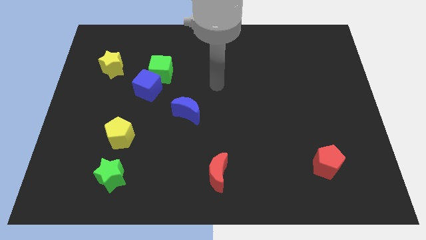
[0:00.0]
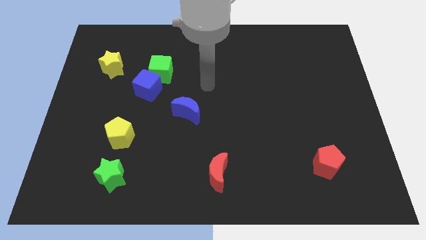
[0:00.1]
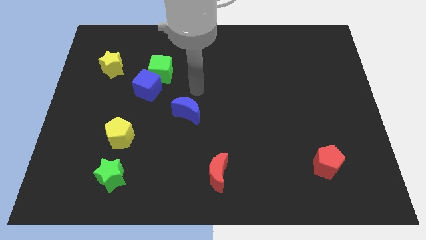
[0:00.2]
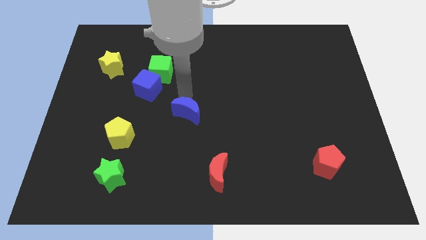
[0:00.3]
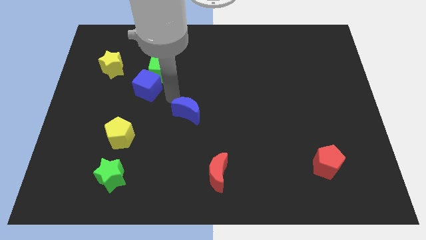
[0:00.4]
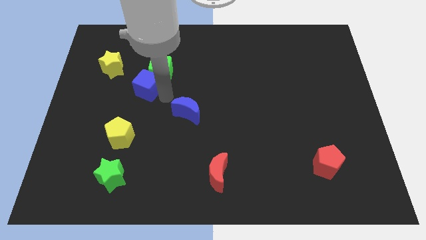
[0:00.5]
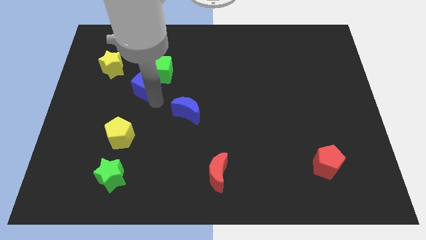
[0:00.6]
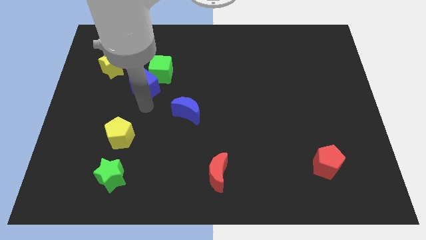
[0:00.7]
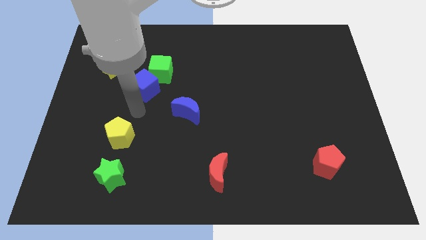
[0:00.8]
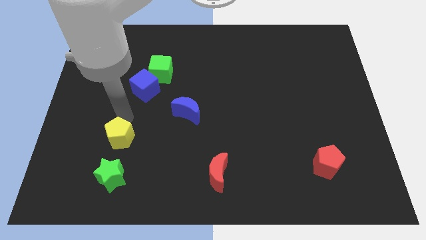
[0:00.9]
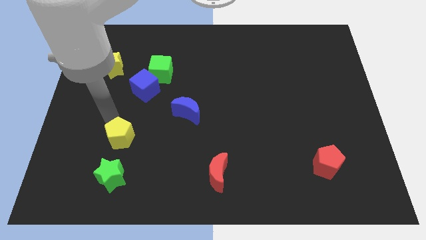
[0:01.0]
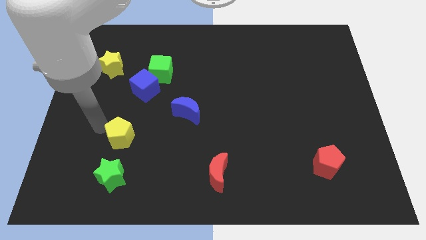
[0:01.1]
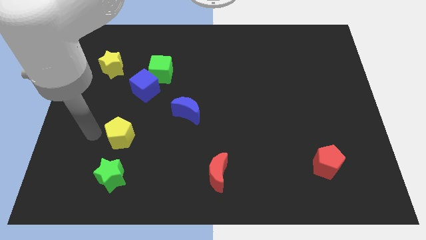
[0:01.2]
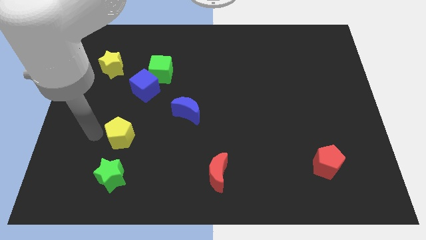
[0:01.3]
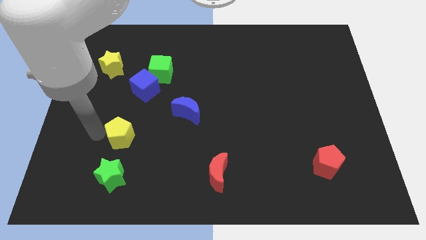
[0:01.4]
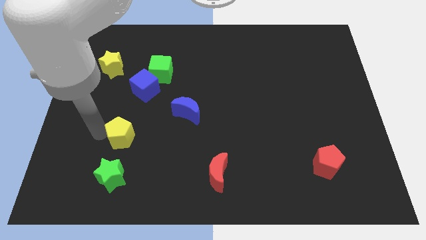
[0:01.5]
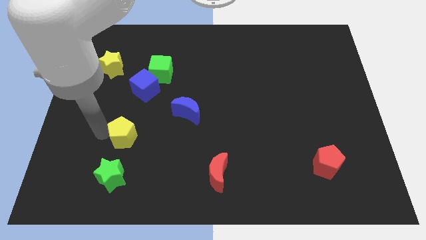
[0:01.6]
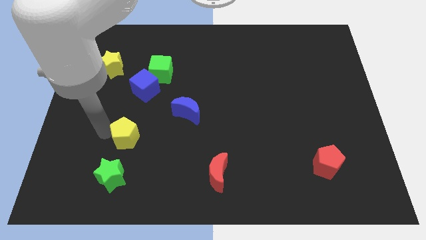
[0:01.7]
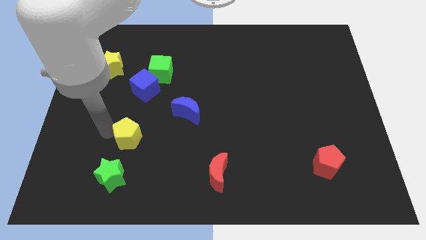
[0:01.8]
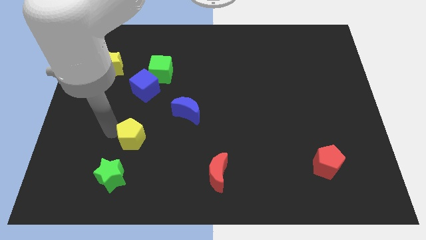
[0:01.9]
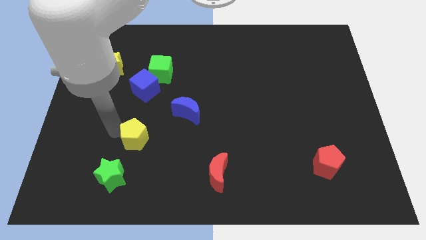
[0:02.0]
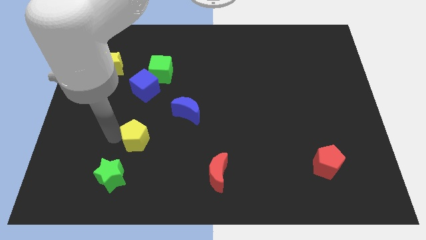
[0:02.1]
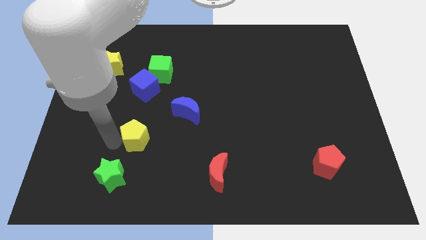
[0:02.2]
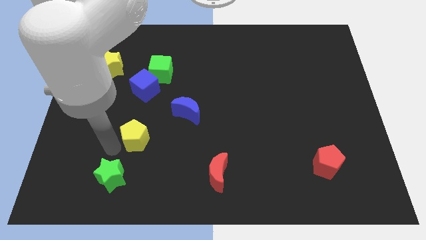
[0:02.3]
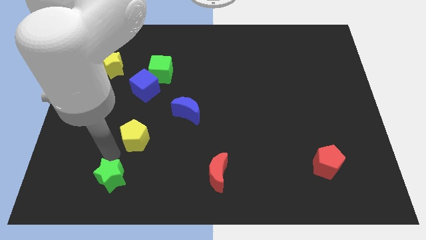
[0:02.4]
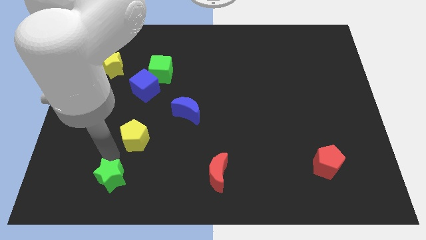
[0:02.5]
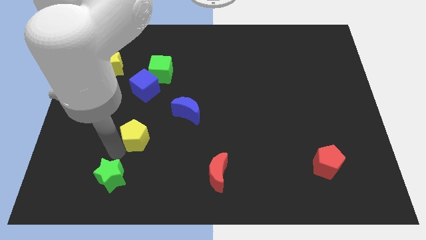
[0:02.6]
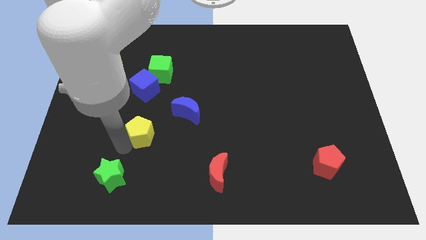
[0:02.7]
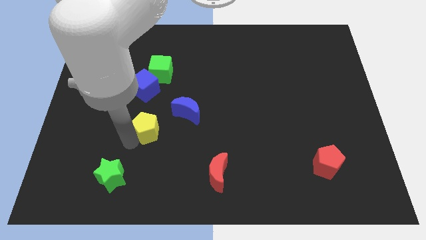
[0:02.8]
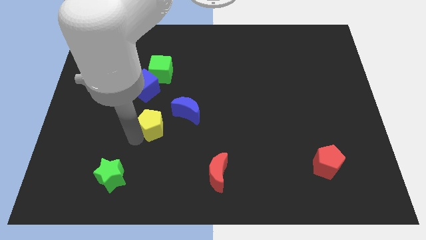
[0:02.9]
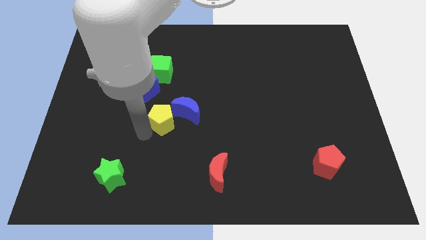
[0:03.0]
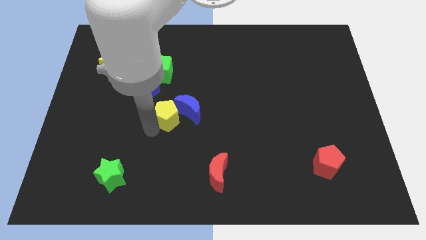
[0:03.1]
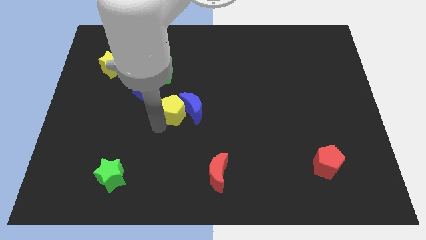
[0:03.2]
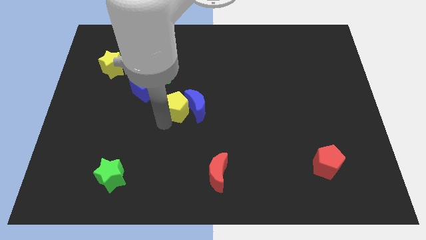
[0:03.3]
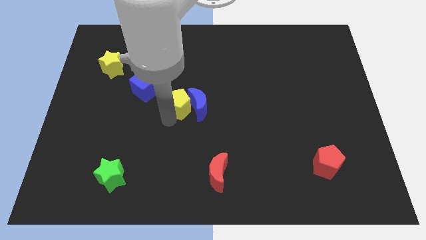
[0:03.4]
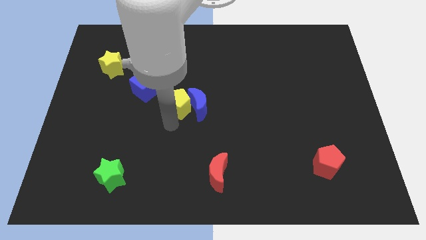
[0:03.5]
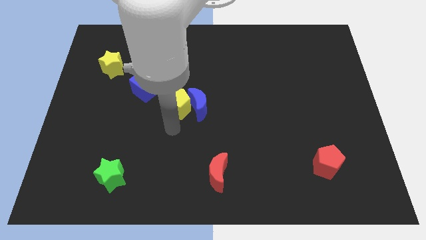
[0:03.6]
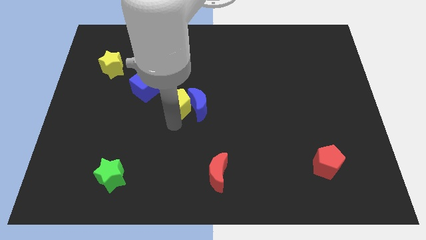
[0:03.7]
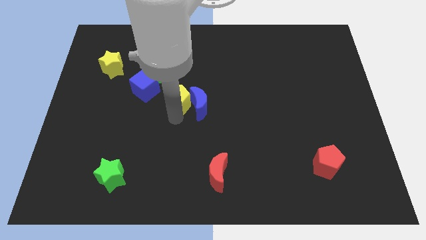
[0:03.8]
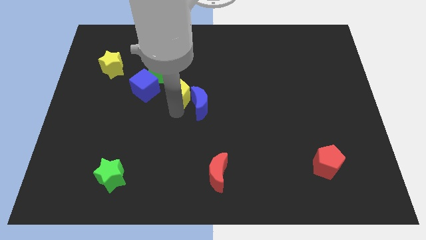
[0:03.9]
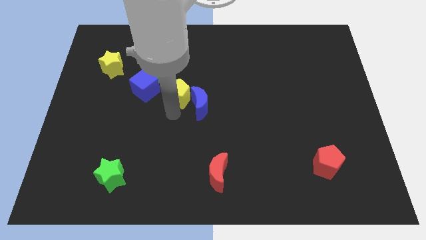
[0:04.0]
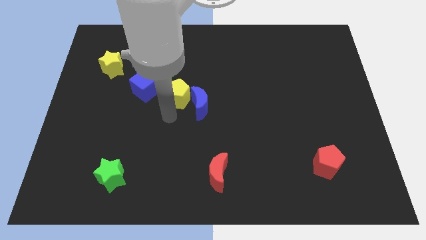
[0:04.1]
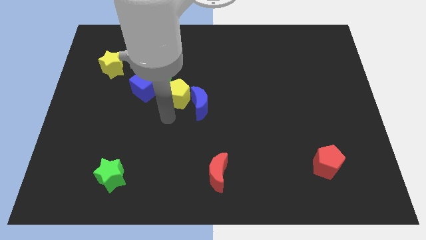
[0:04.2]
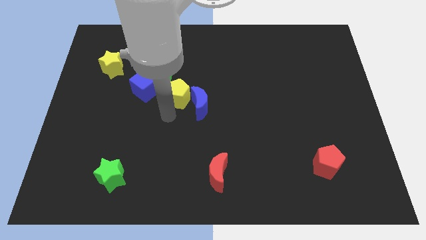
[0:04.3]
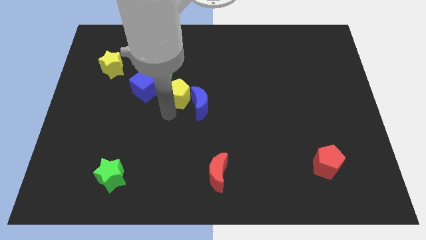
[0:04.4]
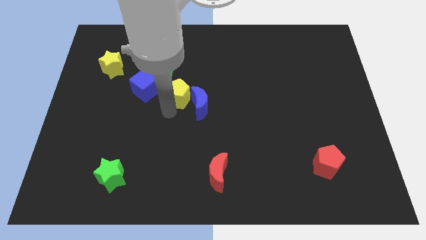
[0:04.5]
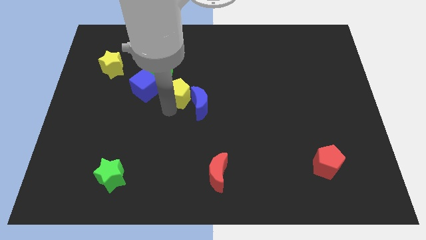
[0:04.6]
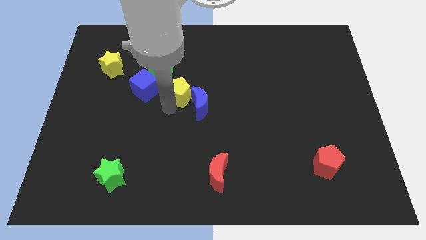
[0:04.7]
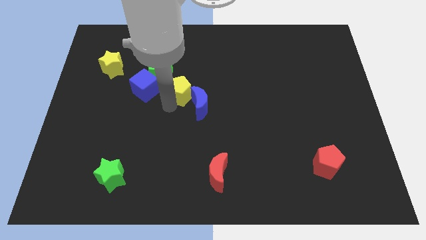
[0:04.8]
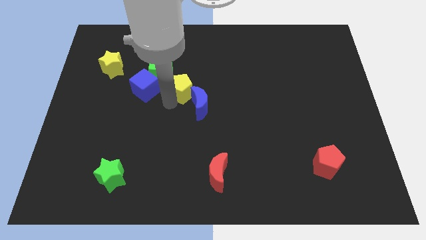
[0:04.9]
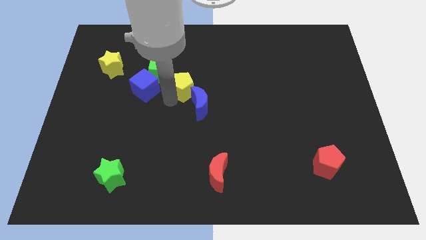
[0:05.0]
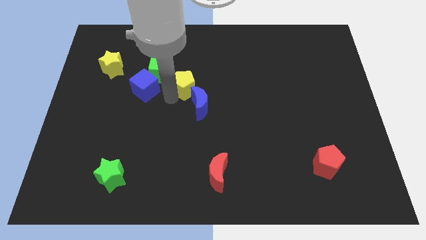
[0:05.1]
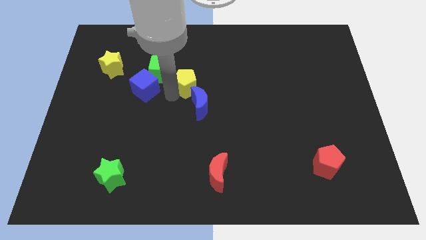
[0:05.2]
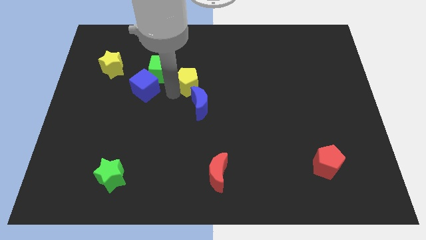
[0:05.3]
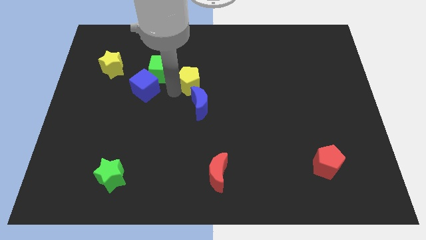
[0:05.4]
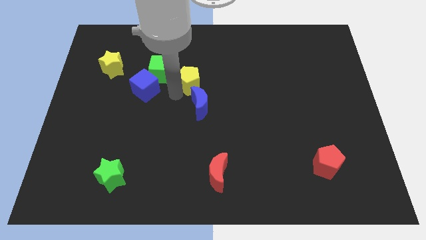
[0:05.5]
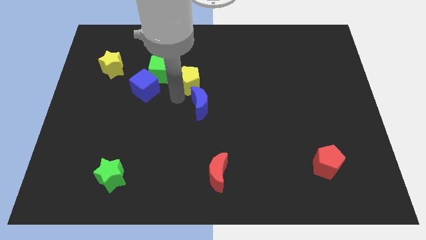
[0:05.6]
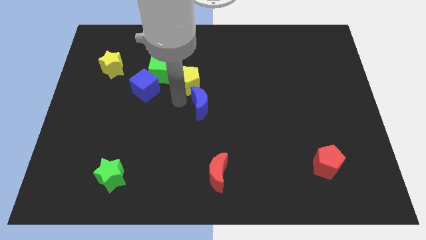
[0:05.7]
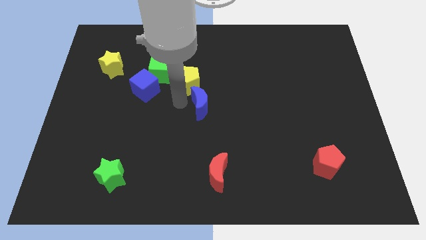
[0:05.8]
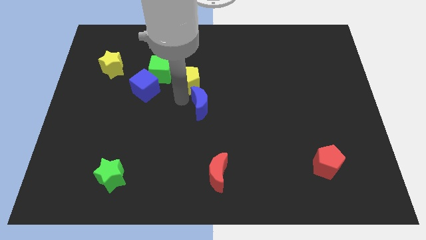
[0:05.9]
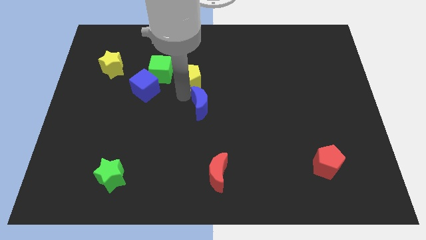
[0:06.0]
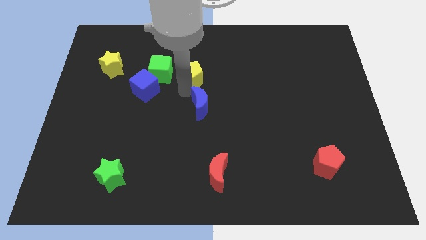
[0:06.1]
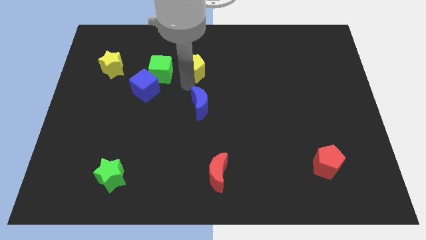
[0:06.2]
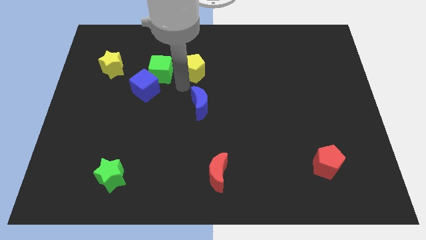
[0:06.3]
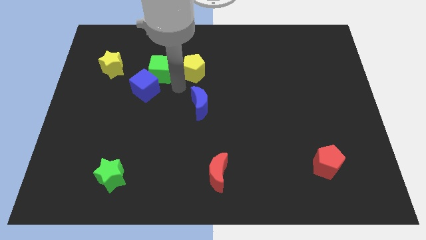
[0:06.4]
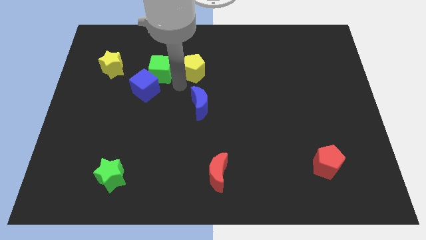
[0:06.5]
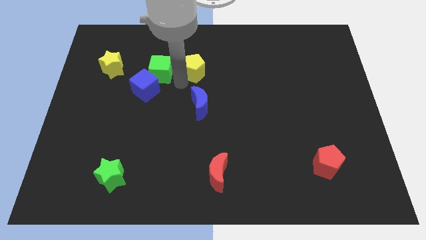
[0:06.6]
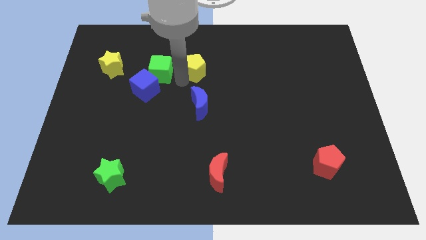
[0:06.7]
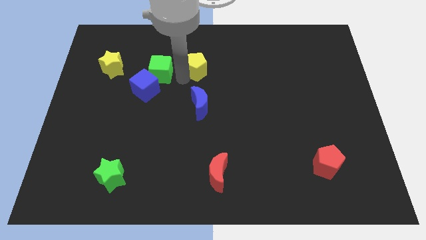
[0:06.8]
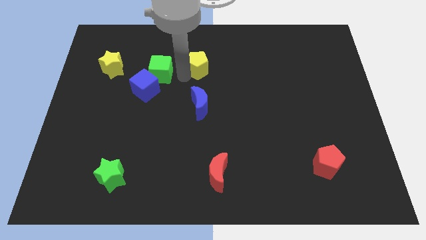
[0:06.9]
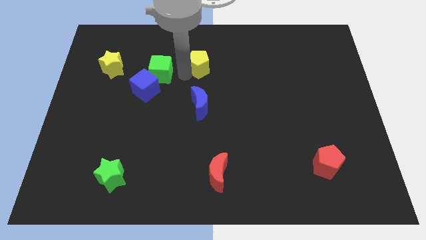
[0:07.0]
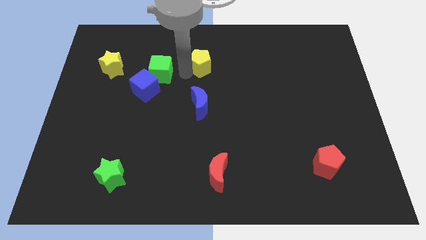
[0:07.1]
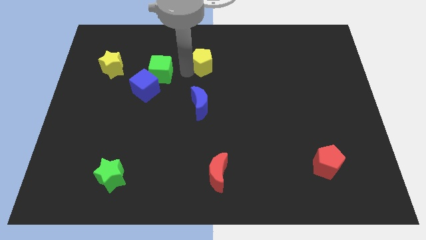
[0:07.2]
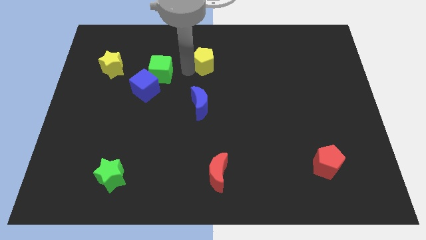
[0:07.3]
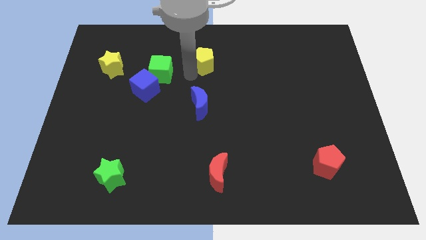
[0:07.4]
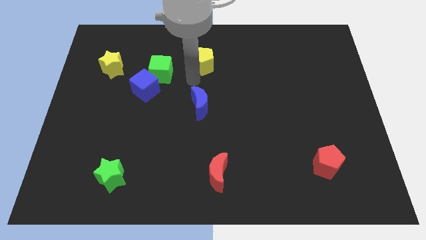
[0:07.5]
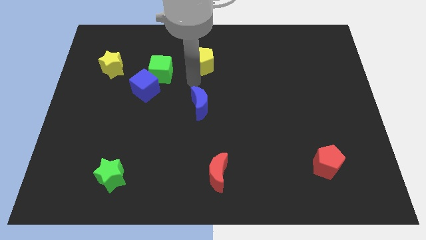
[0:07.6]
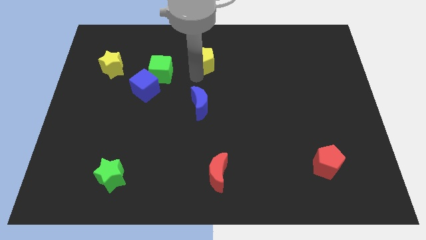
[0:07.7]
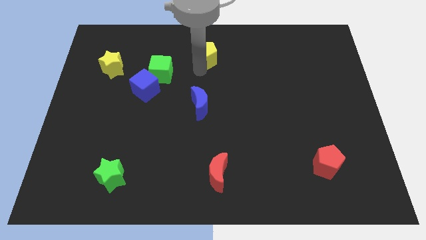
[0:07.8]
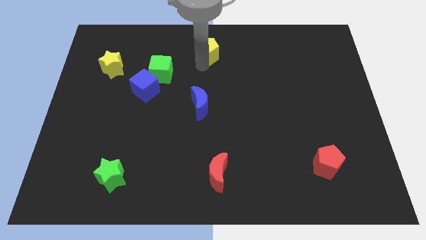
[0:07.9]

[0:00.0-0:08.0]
put the yellow pentagon to the towards your base
